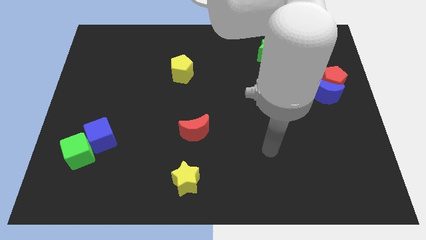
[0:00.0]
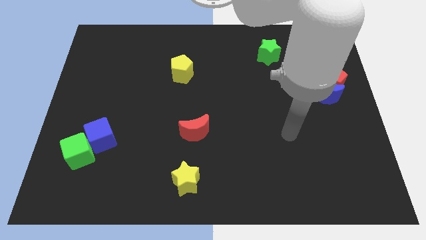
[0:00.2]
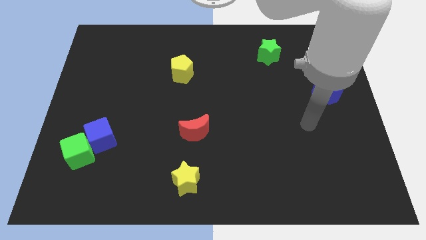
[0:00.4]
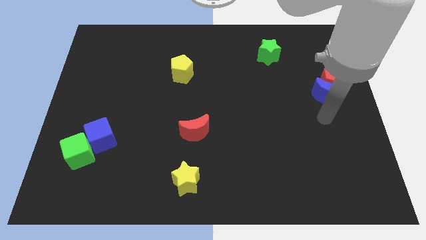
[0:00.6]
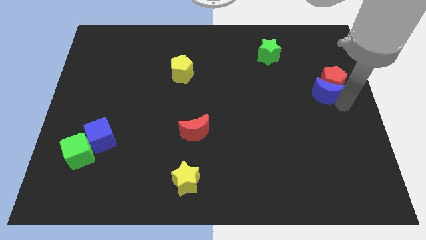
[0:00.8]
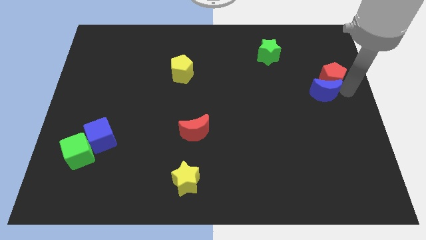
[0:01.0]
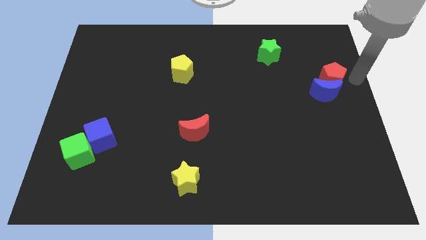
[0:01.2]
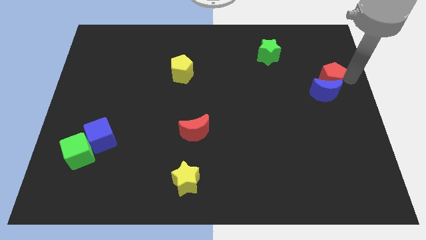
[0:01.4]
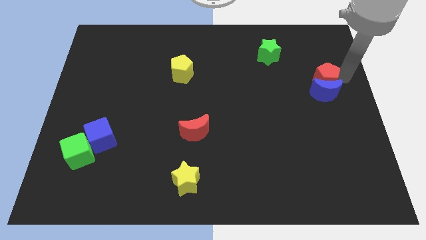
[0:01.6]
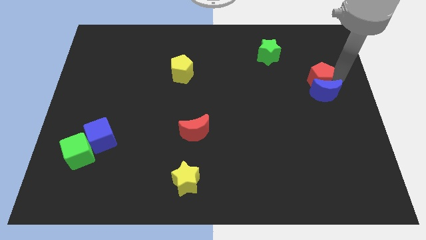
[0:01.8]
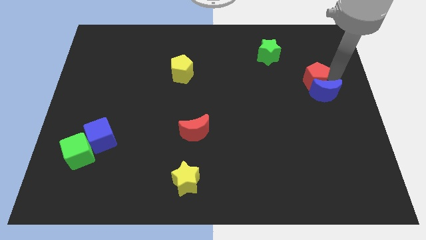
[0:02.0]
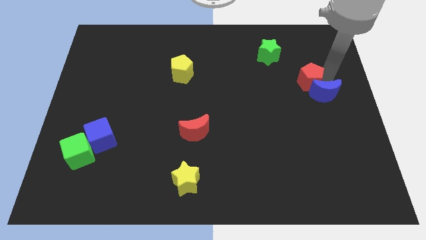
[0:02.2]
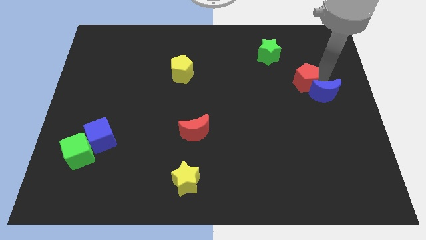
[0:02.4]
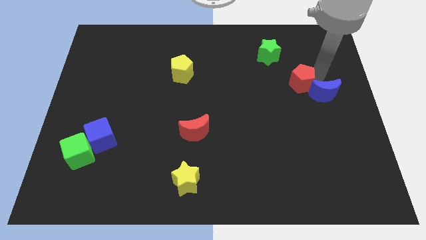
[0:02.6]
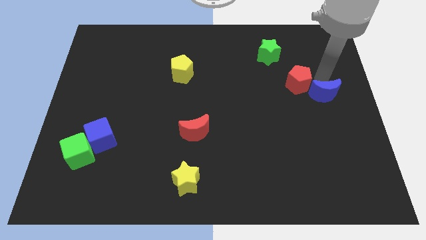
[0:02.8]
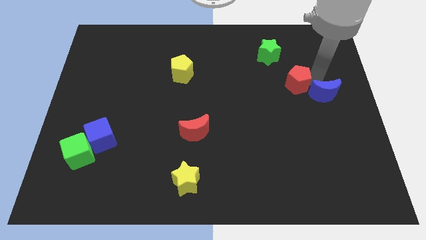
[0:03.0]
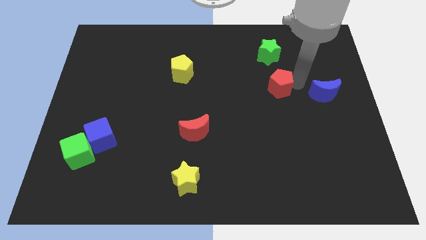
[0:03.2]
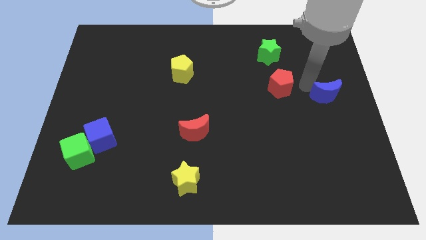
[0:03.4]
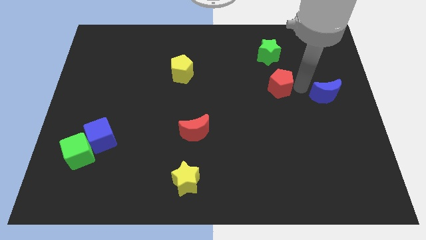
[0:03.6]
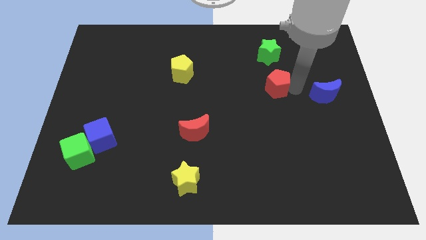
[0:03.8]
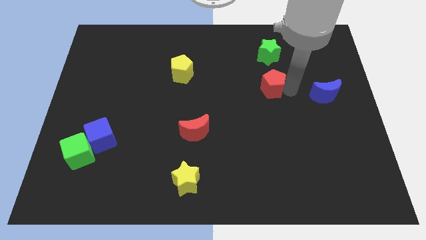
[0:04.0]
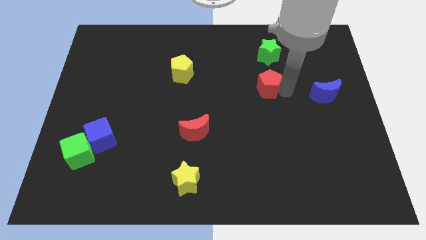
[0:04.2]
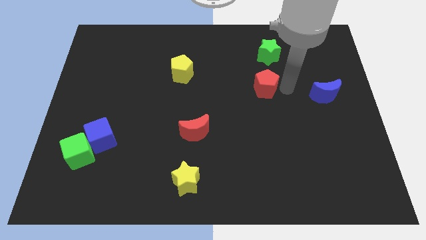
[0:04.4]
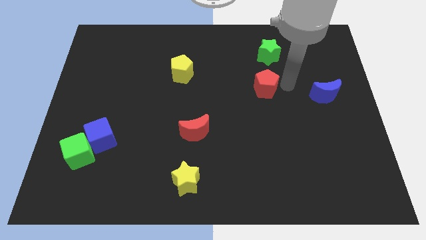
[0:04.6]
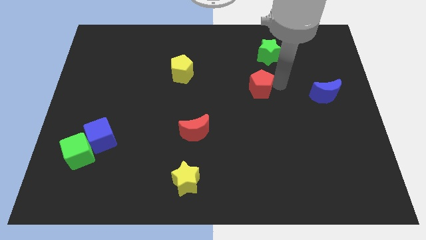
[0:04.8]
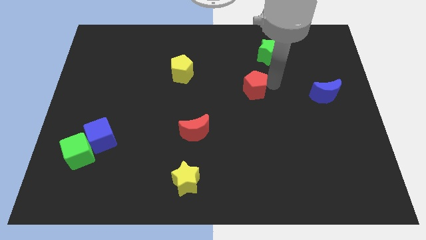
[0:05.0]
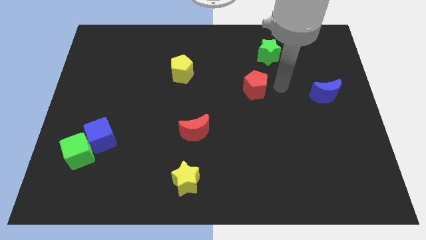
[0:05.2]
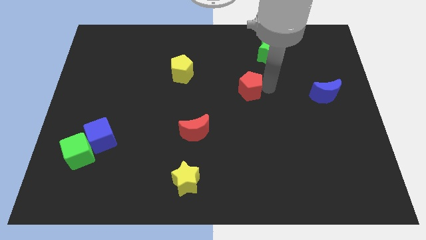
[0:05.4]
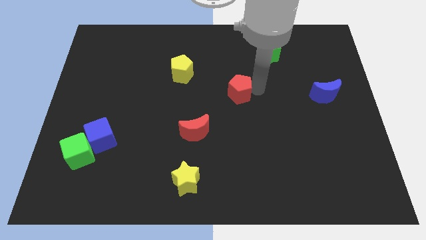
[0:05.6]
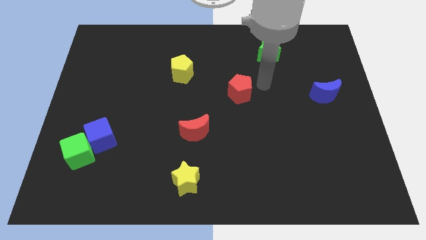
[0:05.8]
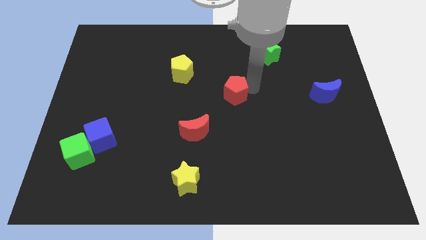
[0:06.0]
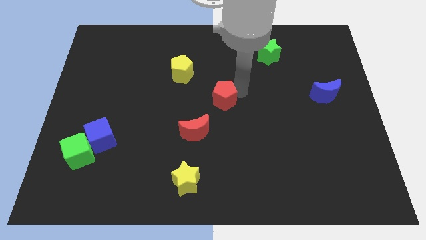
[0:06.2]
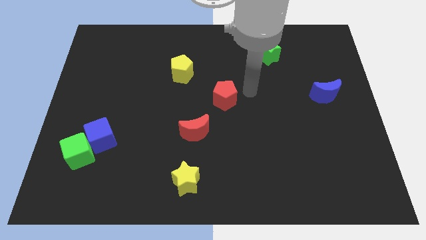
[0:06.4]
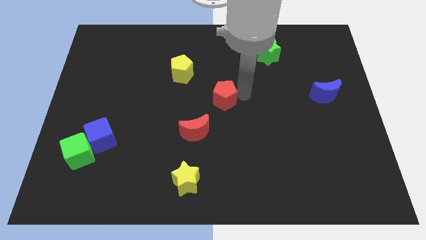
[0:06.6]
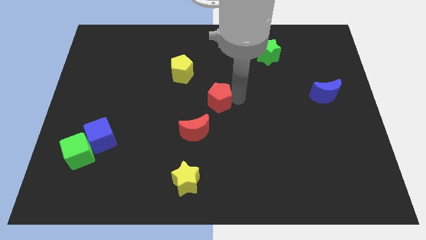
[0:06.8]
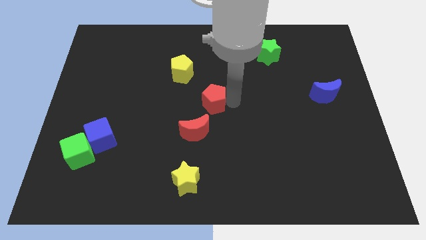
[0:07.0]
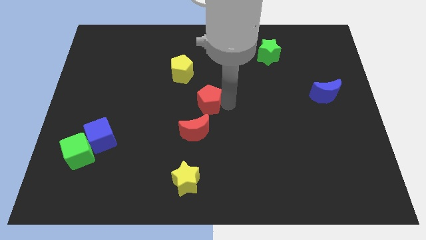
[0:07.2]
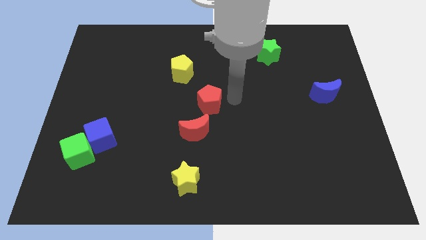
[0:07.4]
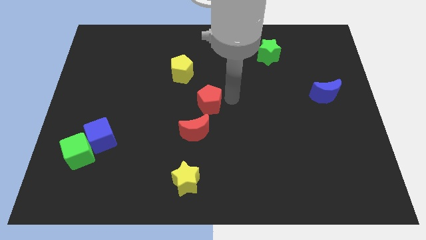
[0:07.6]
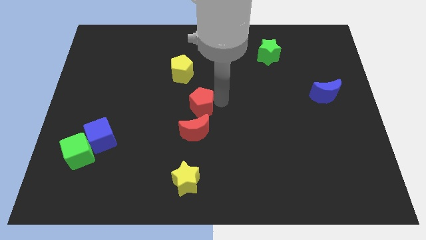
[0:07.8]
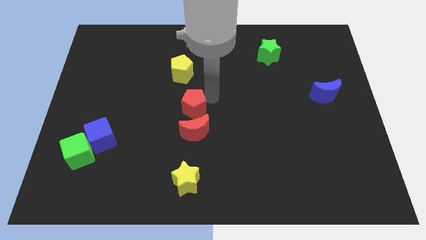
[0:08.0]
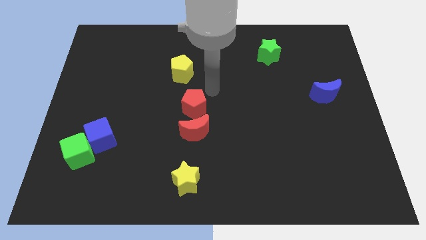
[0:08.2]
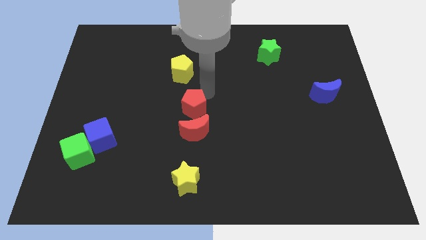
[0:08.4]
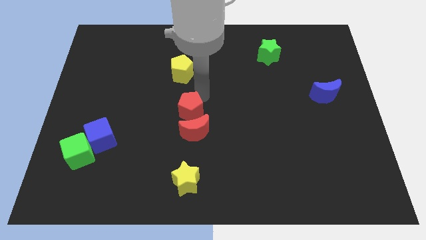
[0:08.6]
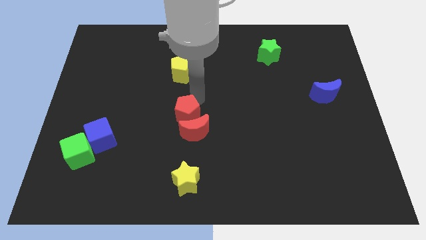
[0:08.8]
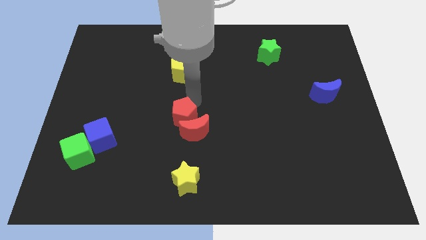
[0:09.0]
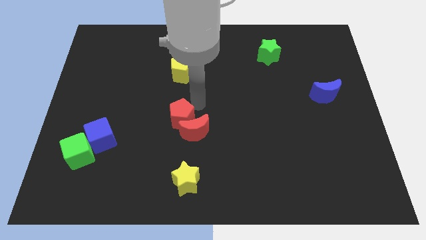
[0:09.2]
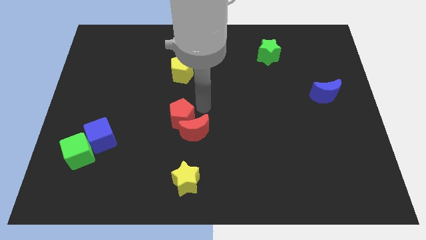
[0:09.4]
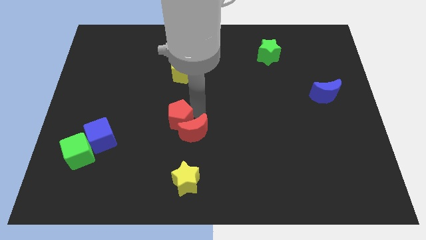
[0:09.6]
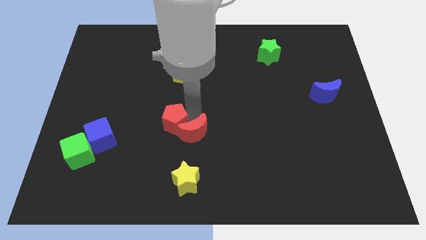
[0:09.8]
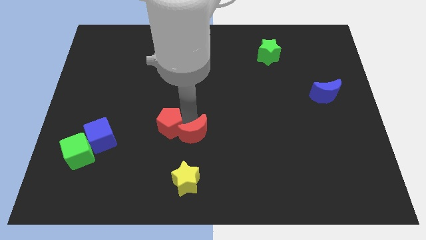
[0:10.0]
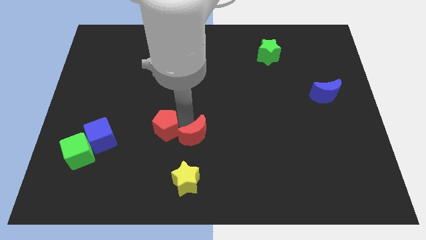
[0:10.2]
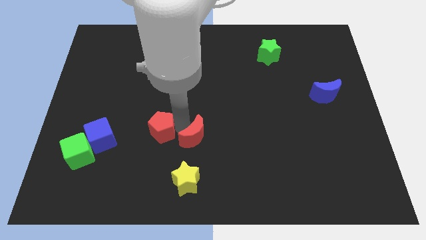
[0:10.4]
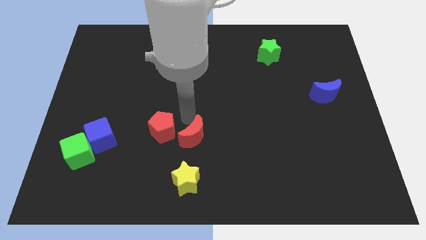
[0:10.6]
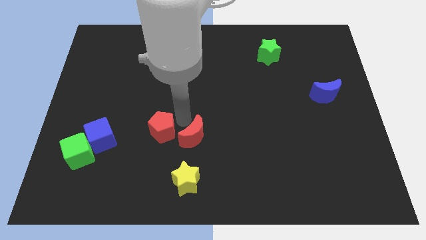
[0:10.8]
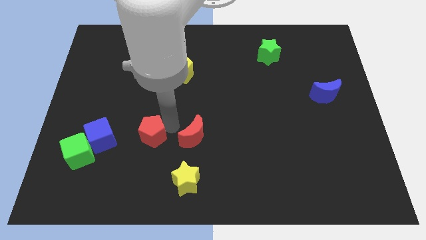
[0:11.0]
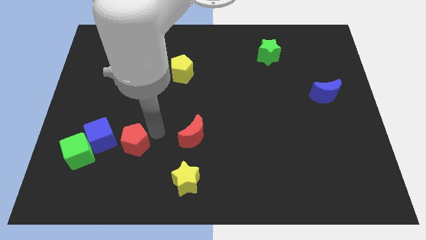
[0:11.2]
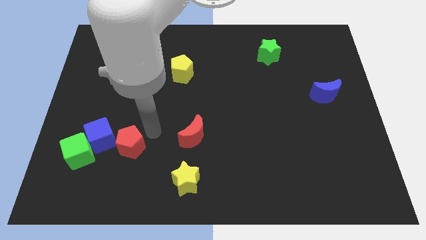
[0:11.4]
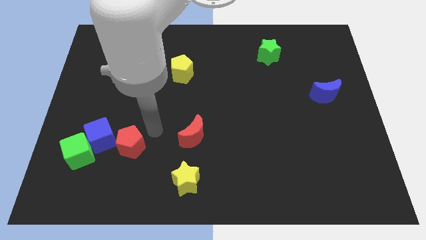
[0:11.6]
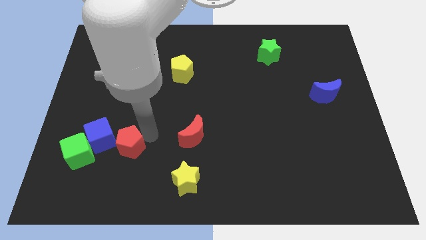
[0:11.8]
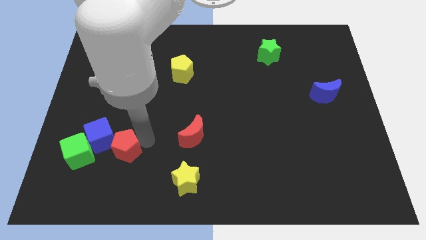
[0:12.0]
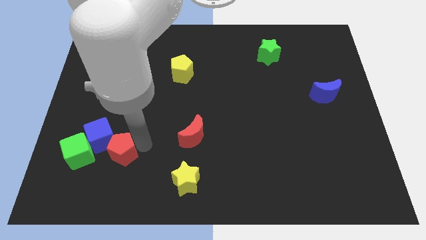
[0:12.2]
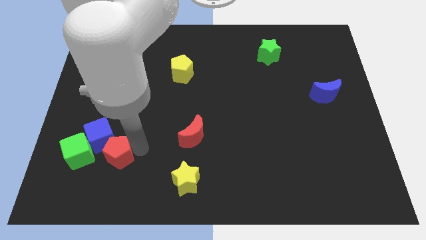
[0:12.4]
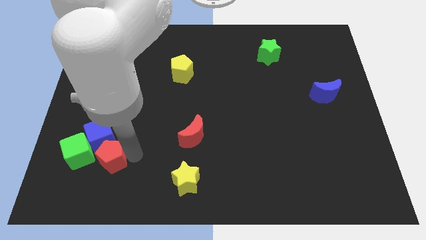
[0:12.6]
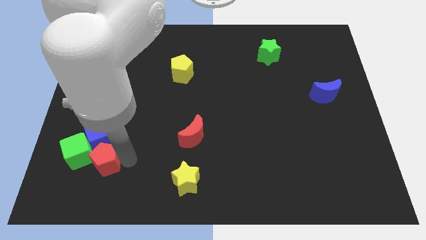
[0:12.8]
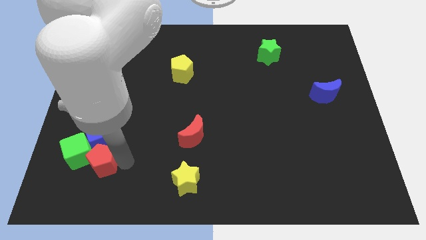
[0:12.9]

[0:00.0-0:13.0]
put the red pentagon towards the green cube

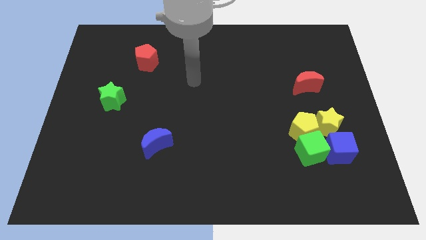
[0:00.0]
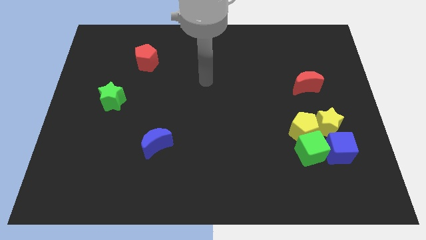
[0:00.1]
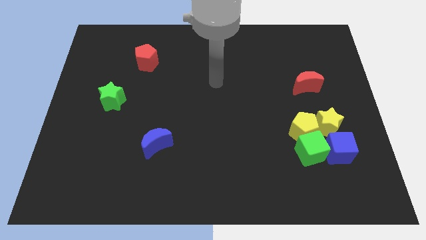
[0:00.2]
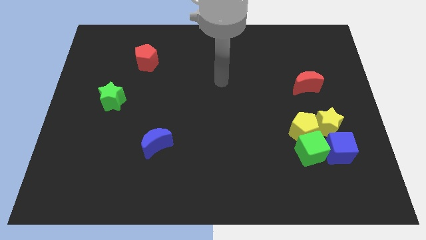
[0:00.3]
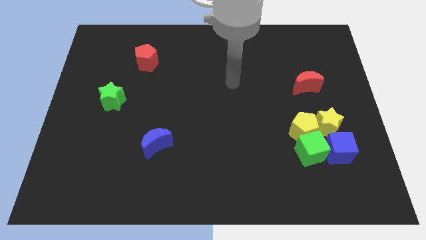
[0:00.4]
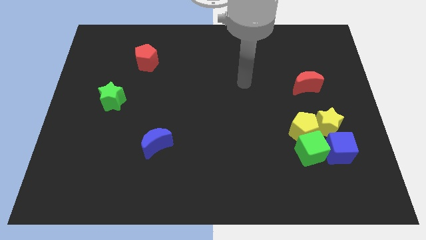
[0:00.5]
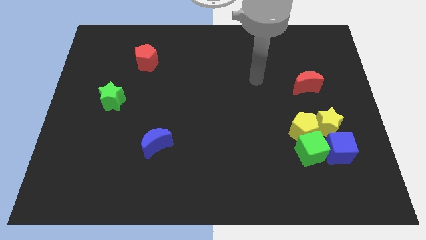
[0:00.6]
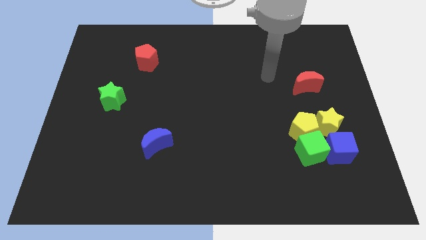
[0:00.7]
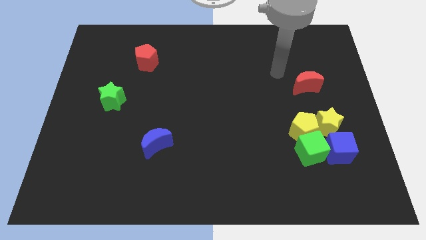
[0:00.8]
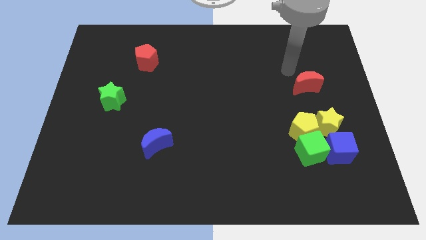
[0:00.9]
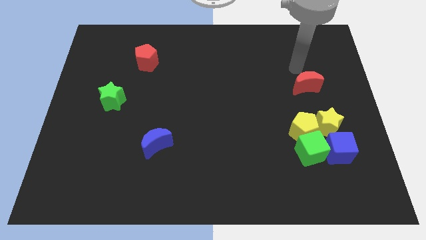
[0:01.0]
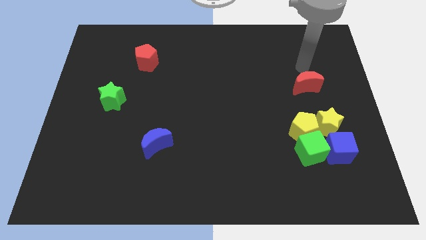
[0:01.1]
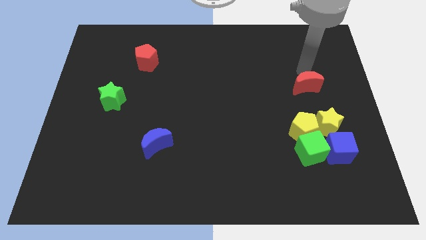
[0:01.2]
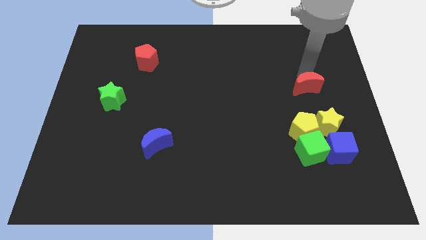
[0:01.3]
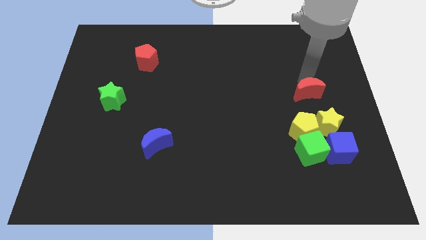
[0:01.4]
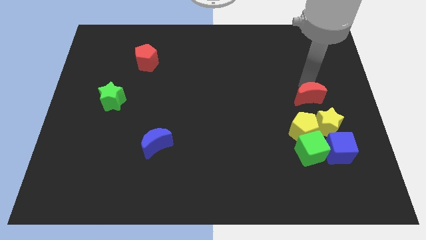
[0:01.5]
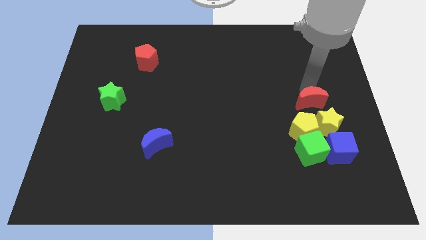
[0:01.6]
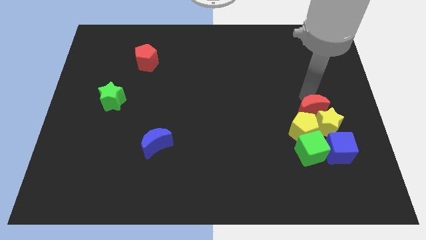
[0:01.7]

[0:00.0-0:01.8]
push the red moon towards the yellow star
